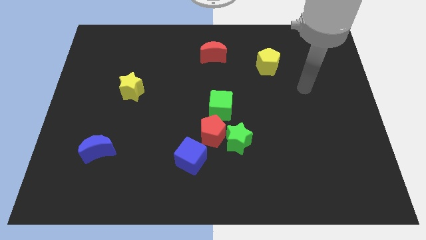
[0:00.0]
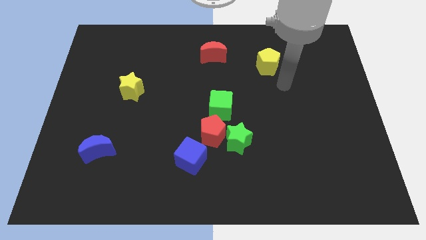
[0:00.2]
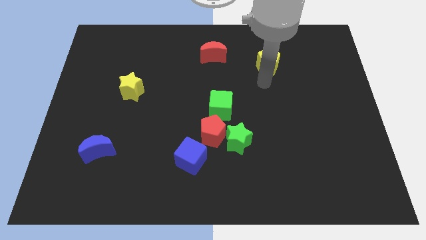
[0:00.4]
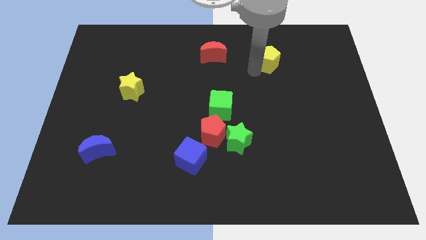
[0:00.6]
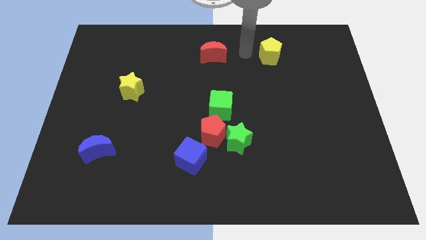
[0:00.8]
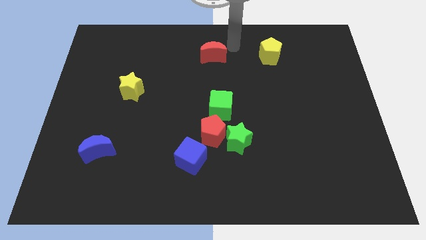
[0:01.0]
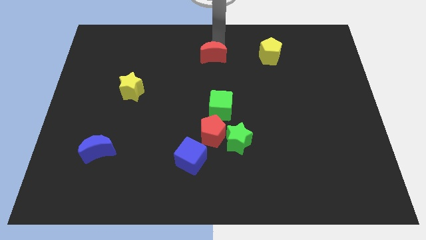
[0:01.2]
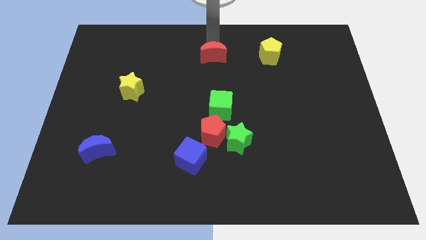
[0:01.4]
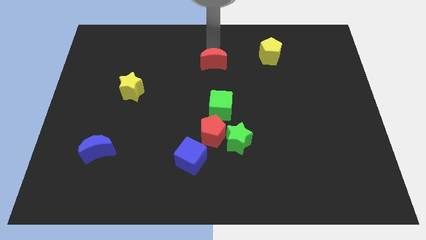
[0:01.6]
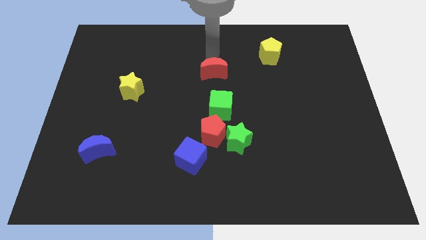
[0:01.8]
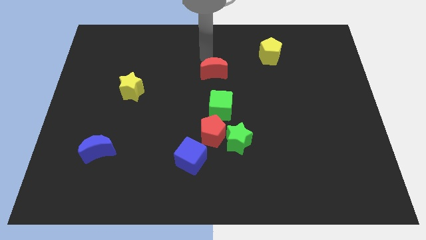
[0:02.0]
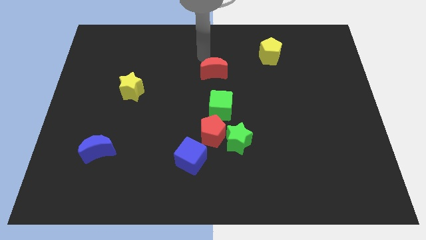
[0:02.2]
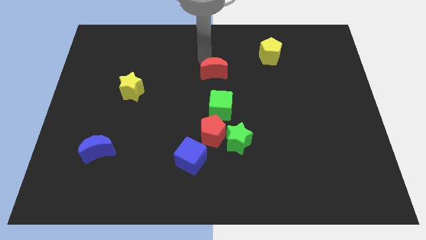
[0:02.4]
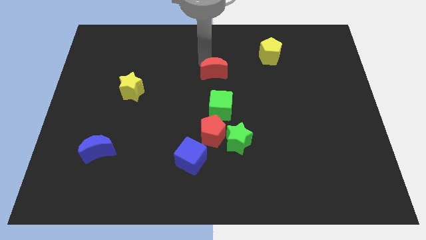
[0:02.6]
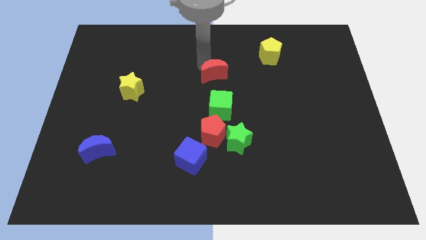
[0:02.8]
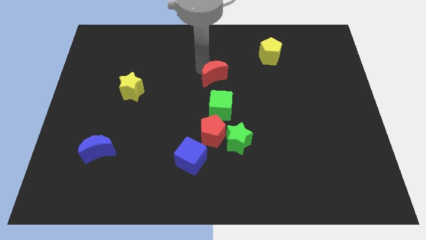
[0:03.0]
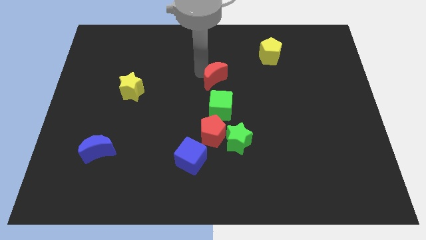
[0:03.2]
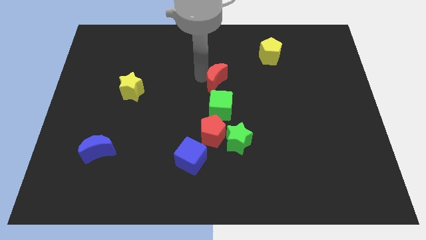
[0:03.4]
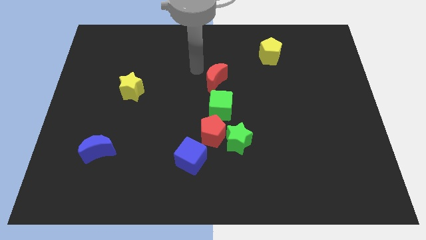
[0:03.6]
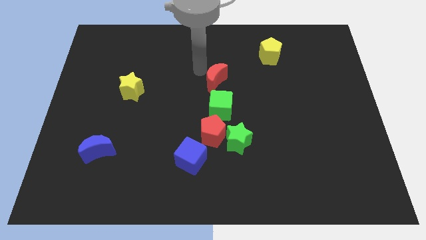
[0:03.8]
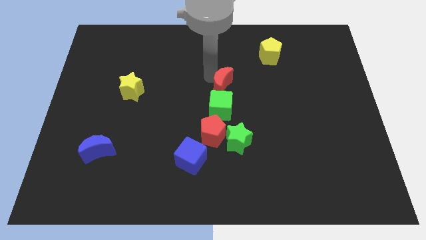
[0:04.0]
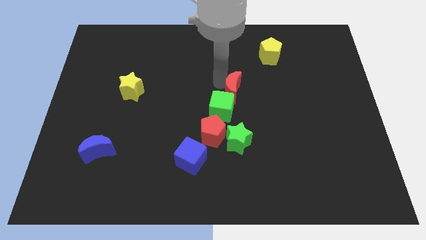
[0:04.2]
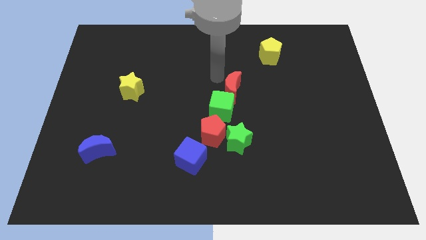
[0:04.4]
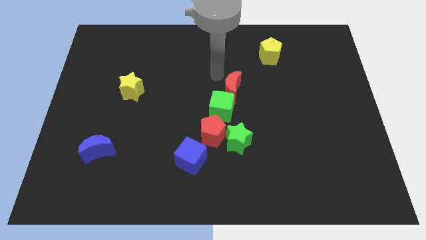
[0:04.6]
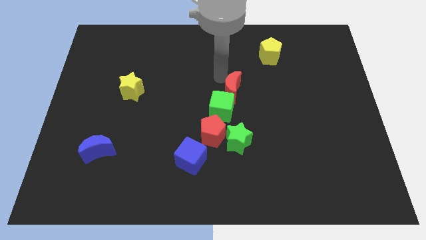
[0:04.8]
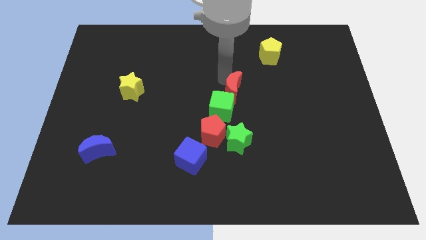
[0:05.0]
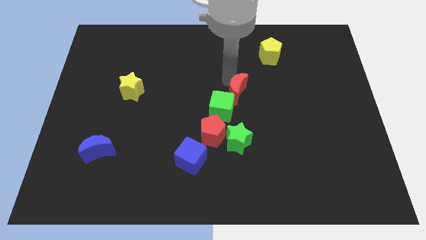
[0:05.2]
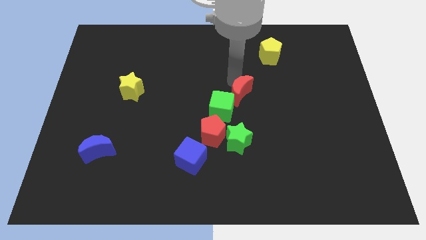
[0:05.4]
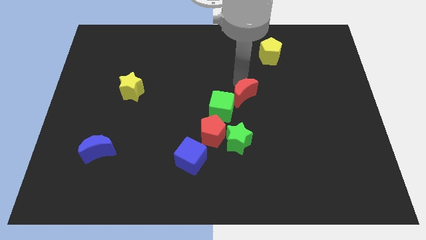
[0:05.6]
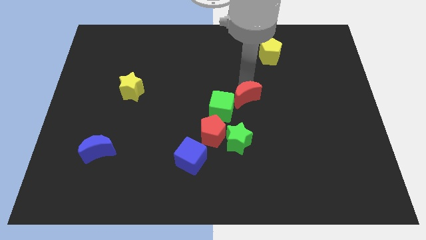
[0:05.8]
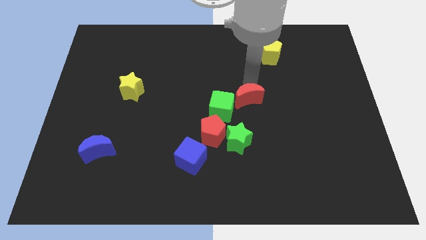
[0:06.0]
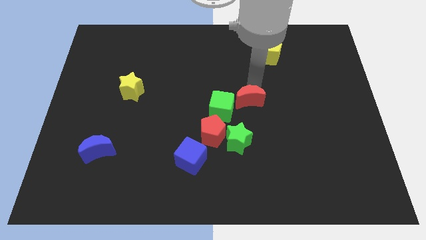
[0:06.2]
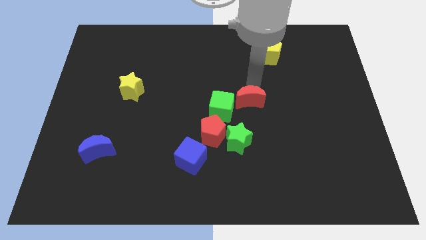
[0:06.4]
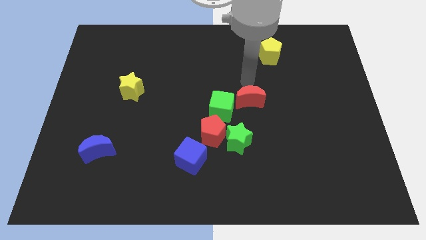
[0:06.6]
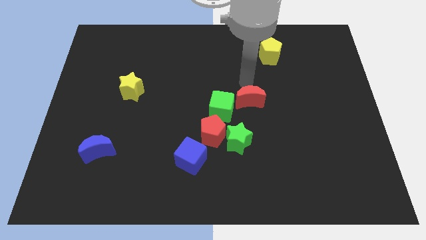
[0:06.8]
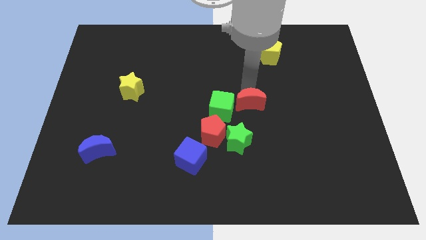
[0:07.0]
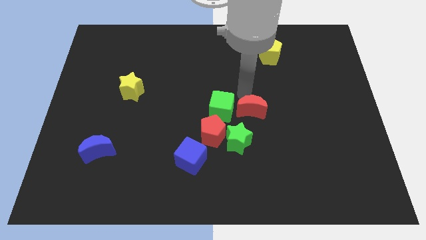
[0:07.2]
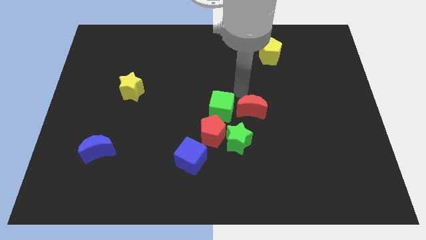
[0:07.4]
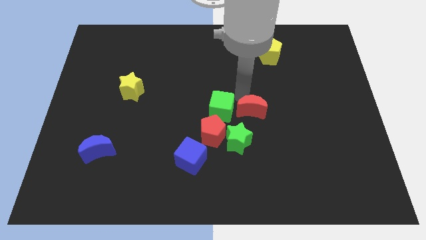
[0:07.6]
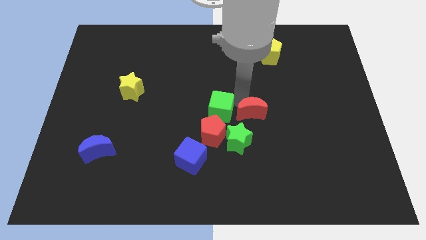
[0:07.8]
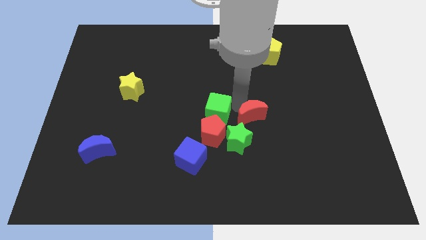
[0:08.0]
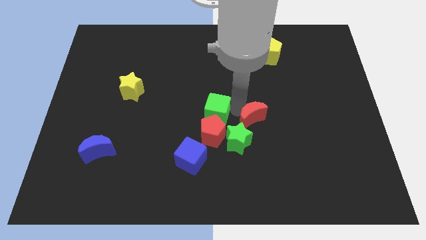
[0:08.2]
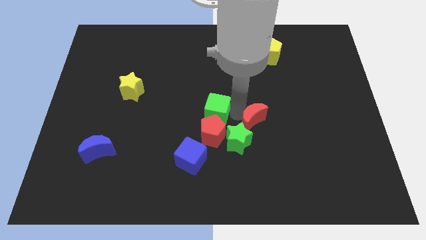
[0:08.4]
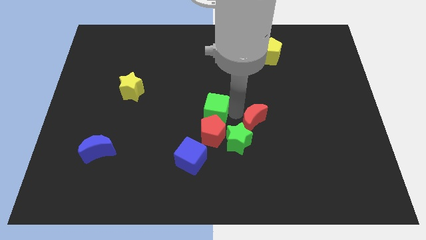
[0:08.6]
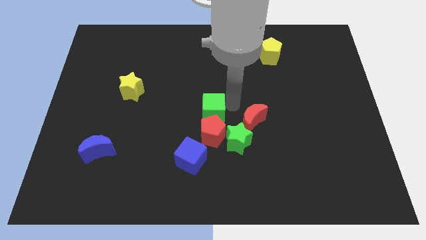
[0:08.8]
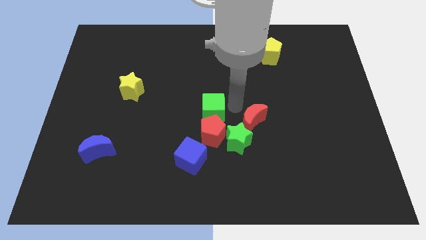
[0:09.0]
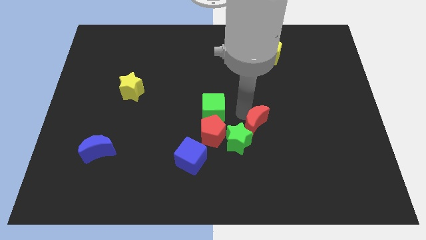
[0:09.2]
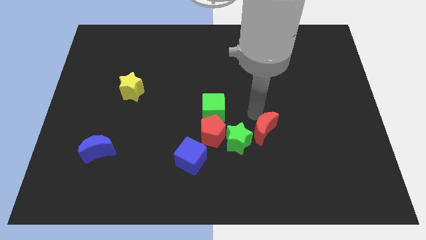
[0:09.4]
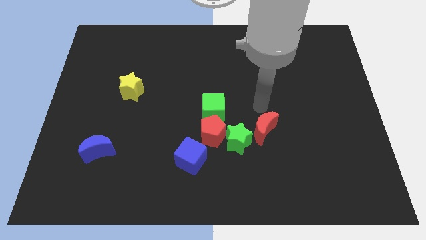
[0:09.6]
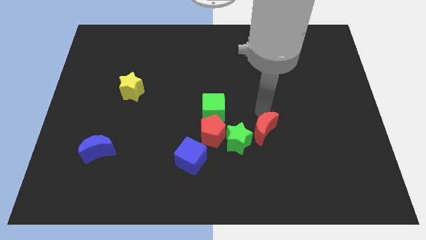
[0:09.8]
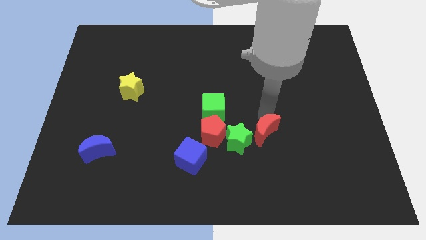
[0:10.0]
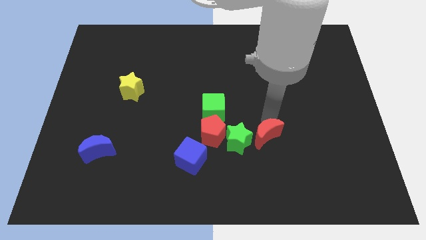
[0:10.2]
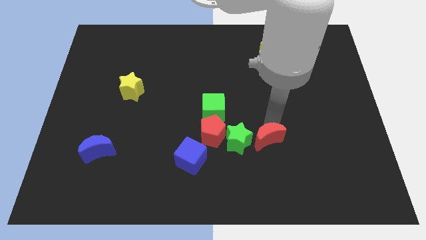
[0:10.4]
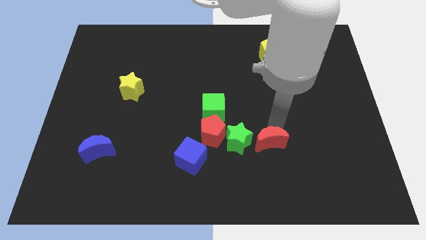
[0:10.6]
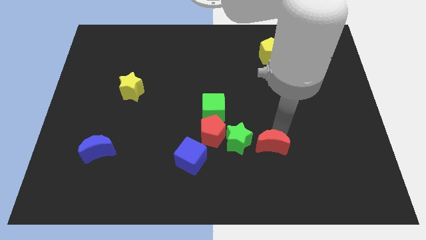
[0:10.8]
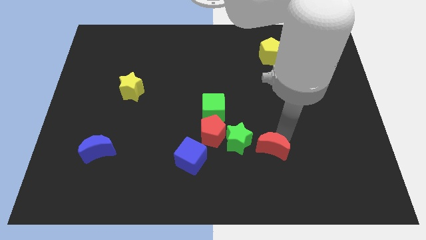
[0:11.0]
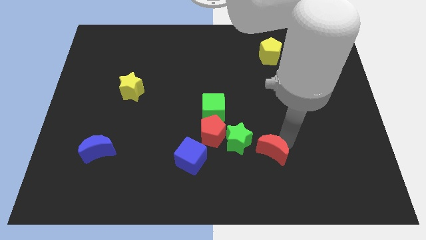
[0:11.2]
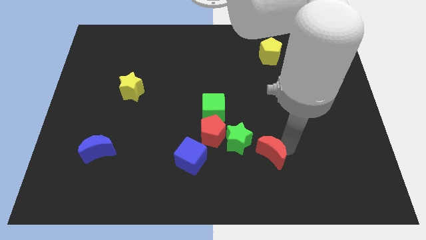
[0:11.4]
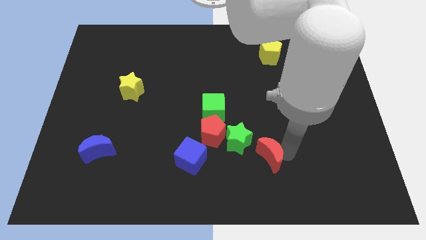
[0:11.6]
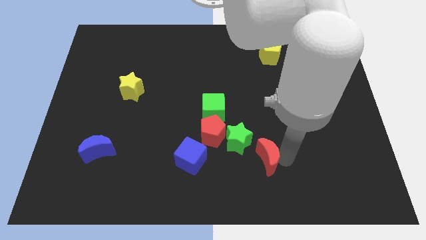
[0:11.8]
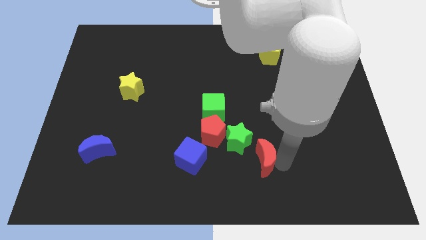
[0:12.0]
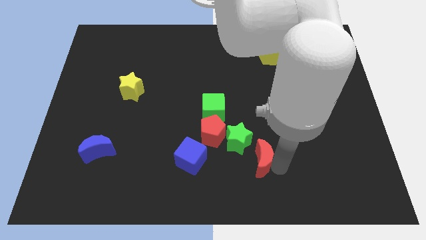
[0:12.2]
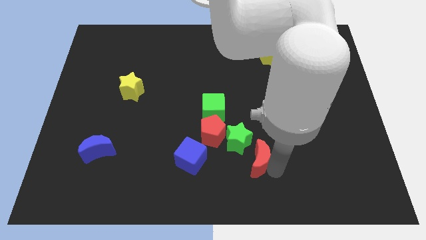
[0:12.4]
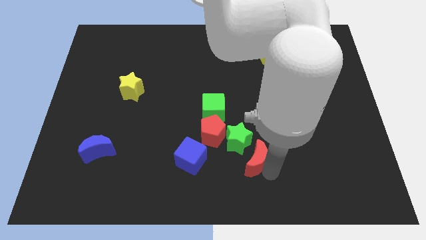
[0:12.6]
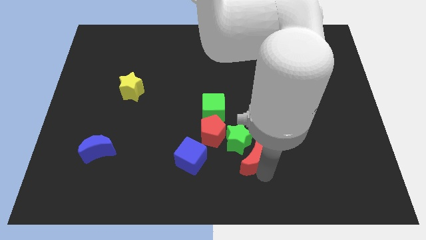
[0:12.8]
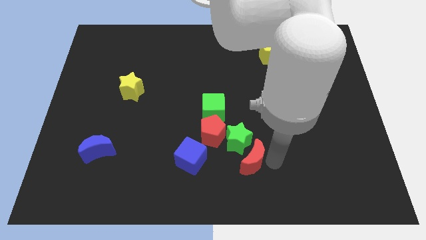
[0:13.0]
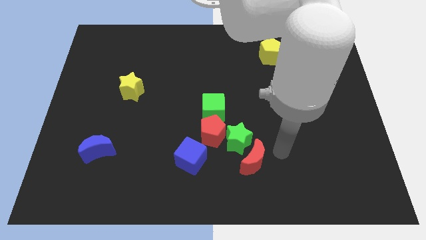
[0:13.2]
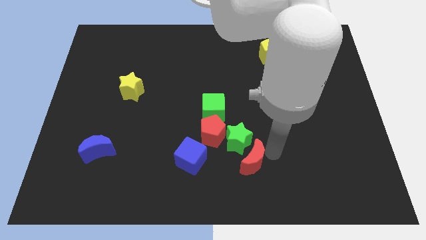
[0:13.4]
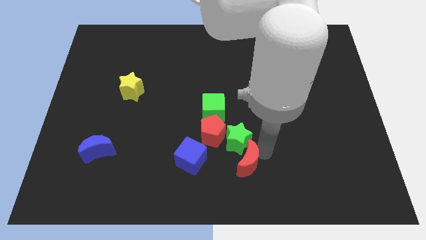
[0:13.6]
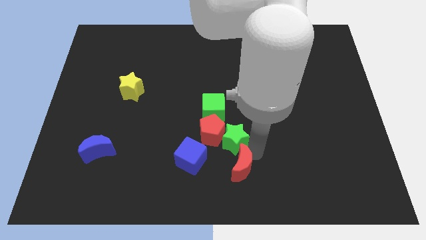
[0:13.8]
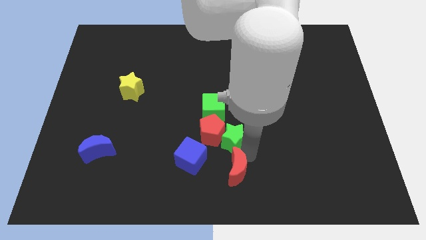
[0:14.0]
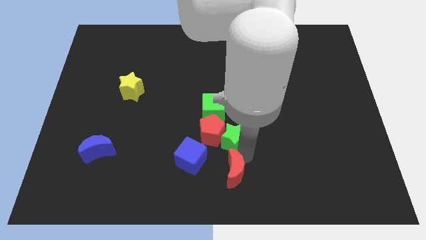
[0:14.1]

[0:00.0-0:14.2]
put the red moon below the red pentagon
